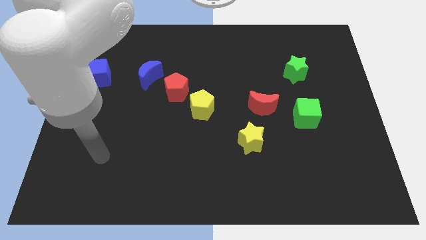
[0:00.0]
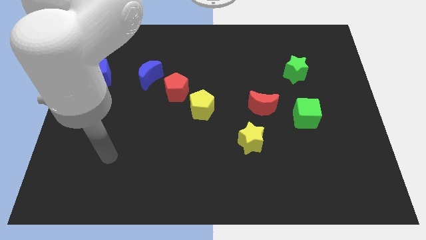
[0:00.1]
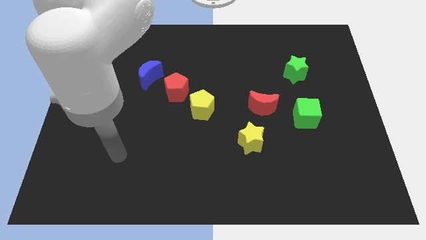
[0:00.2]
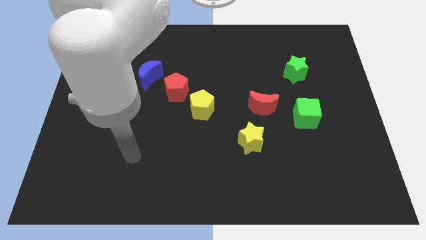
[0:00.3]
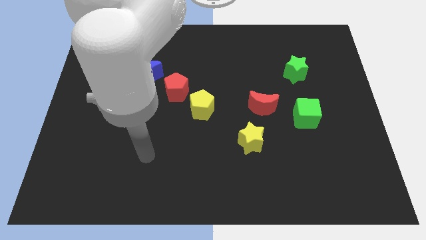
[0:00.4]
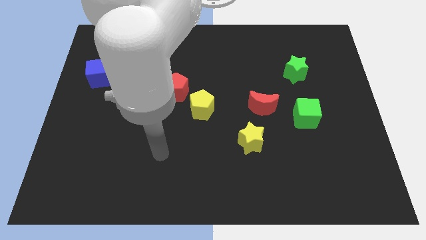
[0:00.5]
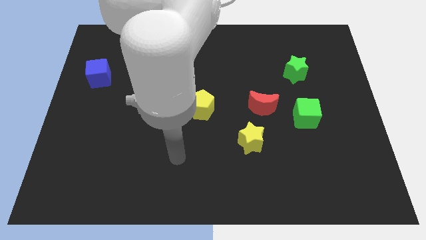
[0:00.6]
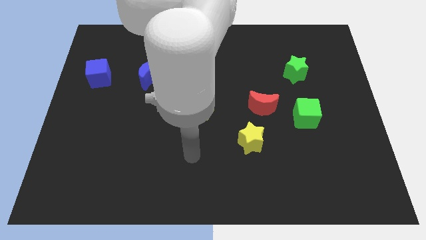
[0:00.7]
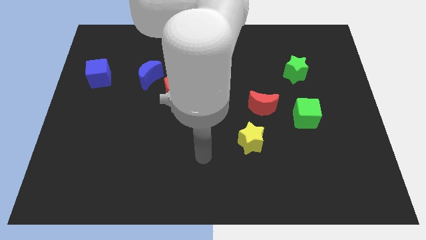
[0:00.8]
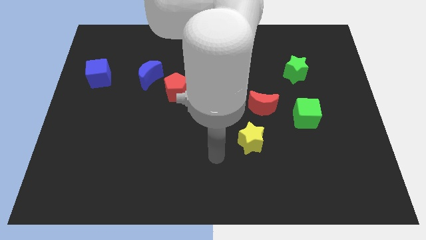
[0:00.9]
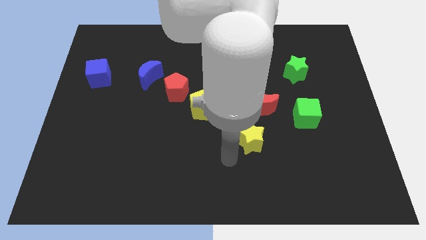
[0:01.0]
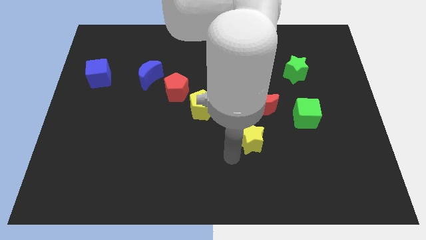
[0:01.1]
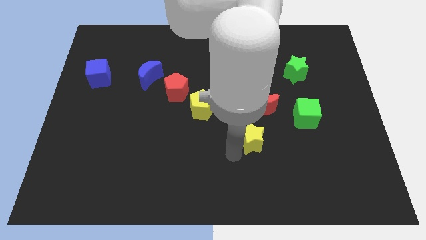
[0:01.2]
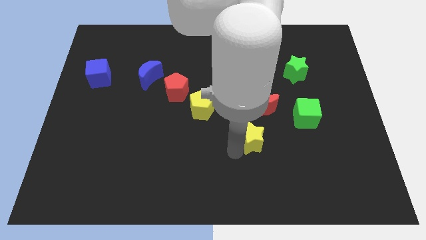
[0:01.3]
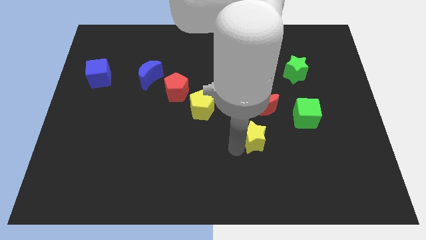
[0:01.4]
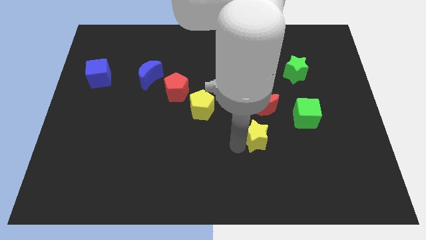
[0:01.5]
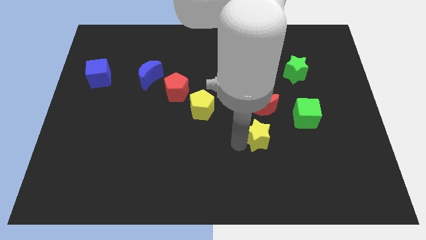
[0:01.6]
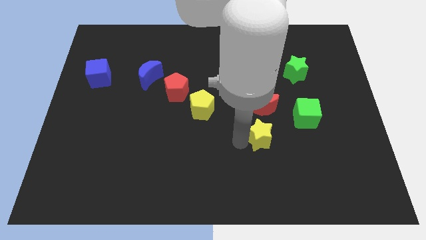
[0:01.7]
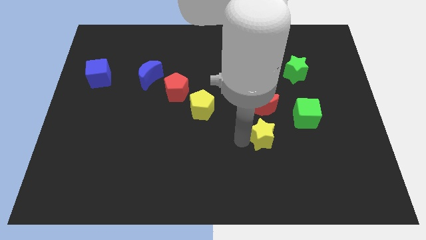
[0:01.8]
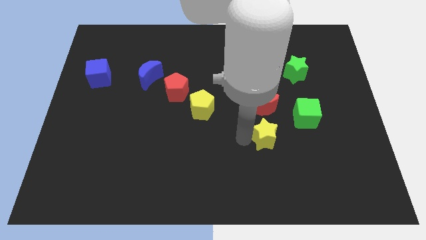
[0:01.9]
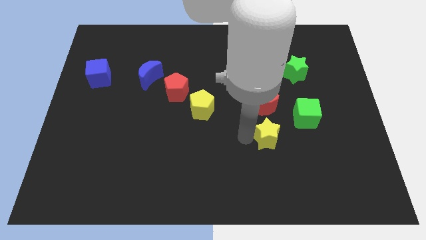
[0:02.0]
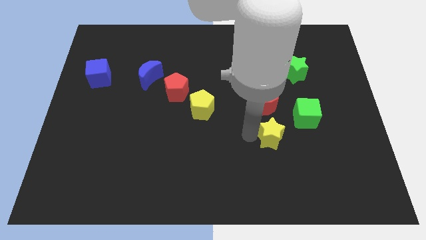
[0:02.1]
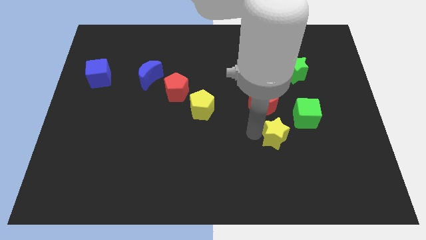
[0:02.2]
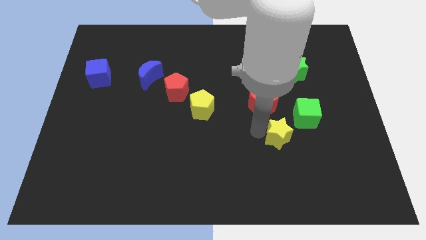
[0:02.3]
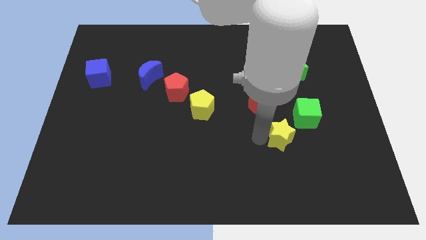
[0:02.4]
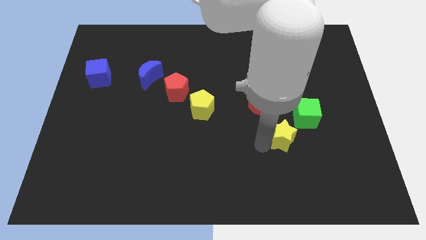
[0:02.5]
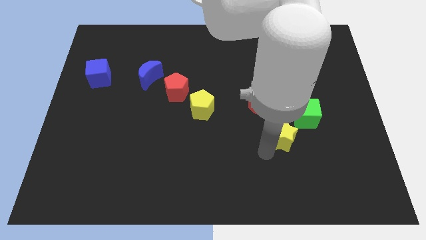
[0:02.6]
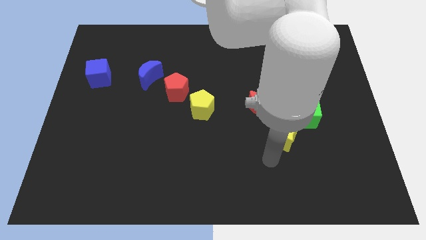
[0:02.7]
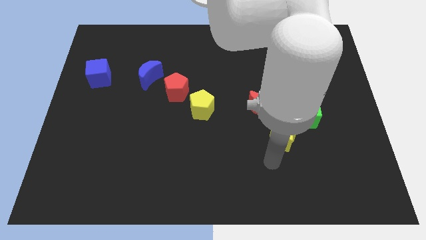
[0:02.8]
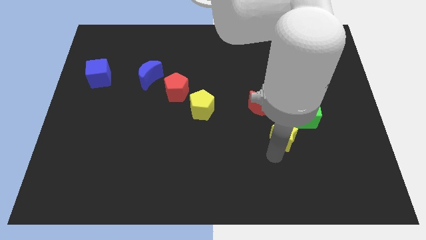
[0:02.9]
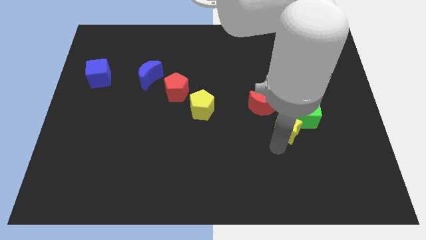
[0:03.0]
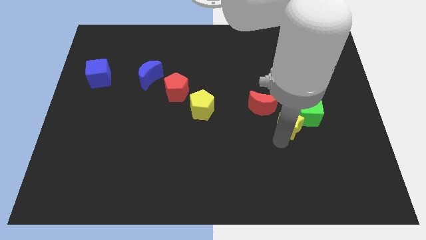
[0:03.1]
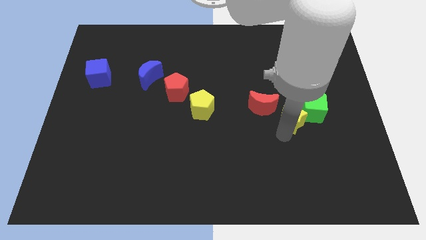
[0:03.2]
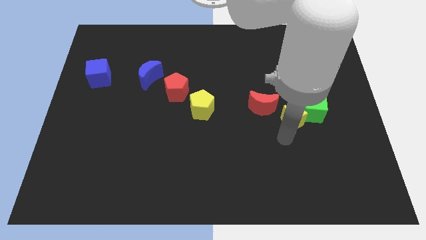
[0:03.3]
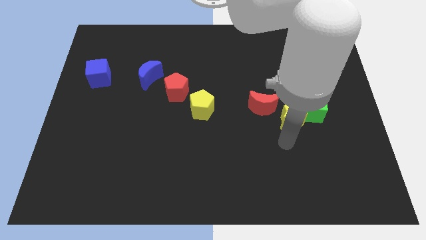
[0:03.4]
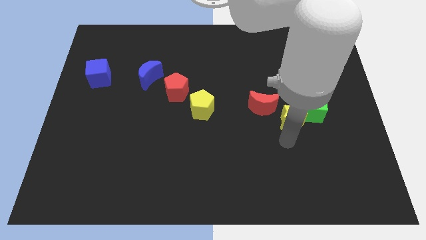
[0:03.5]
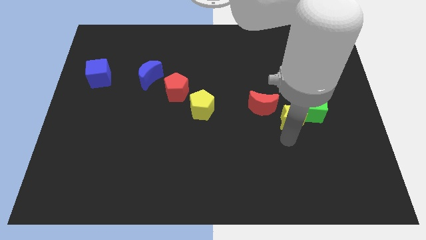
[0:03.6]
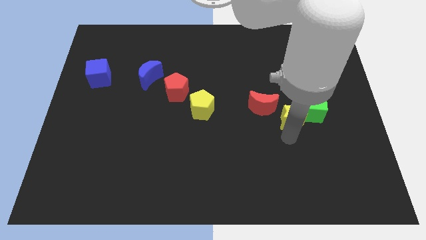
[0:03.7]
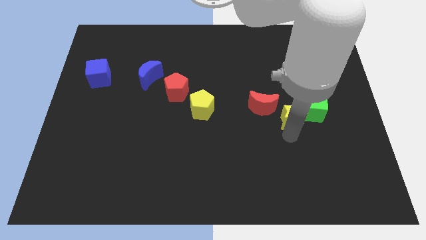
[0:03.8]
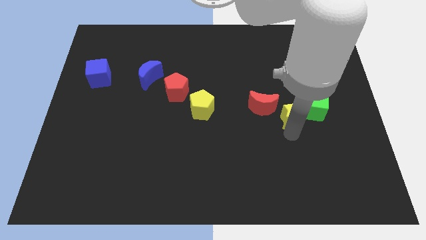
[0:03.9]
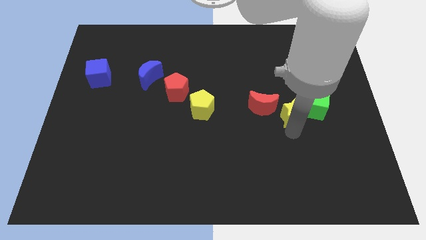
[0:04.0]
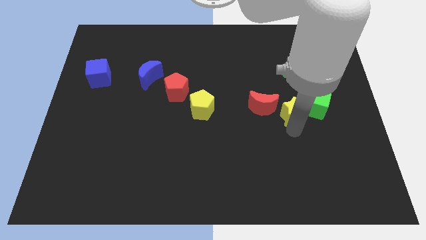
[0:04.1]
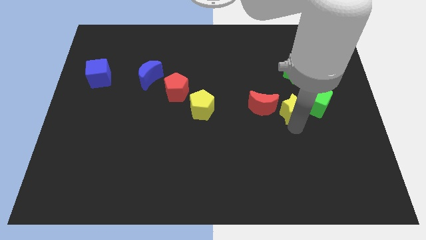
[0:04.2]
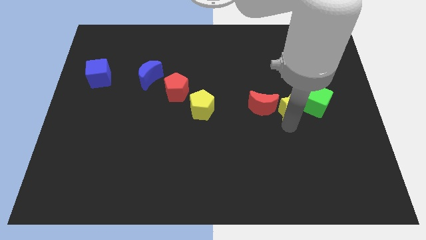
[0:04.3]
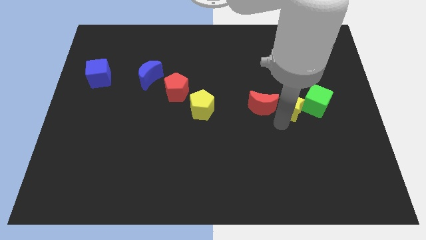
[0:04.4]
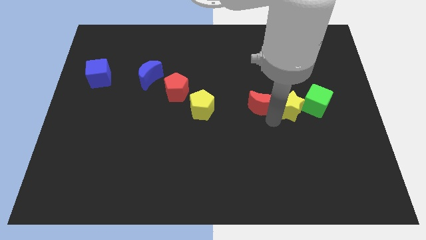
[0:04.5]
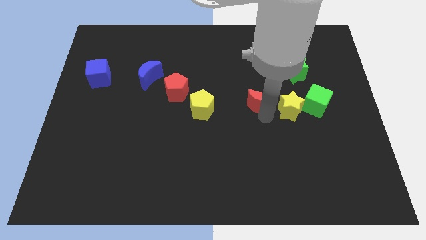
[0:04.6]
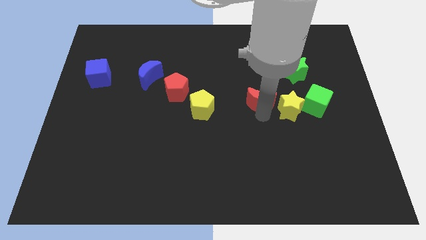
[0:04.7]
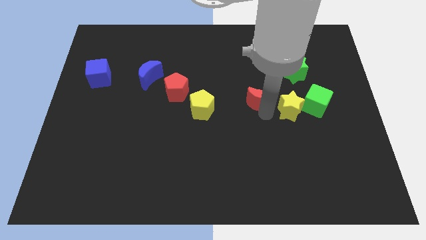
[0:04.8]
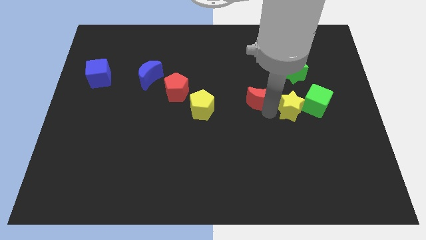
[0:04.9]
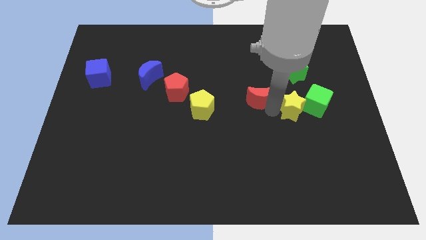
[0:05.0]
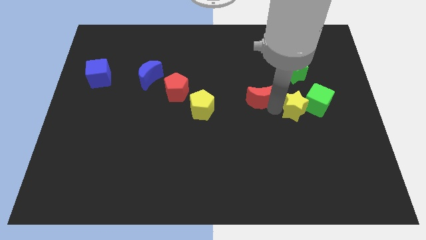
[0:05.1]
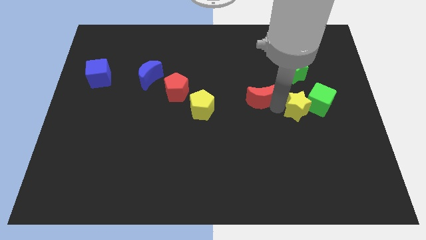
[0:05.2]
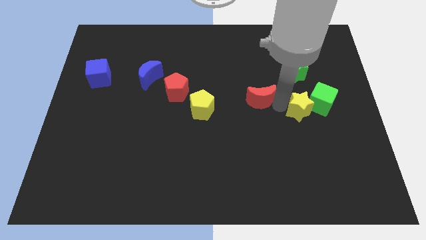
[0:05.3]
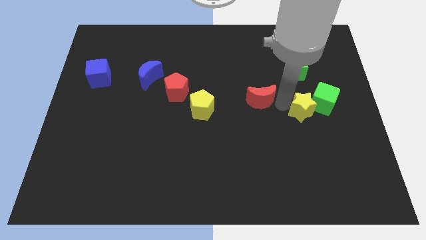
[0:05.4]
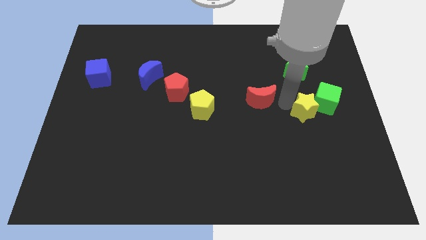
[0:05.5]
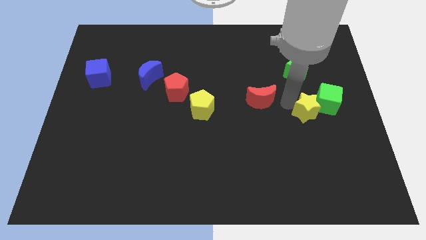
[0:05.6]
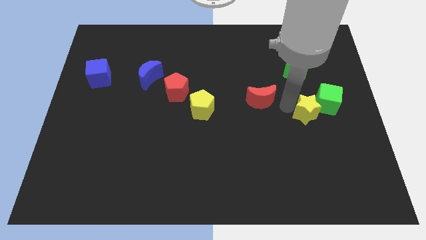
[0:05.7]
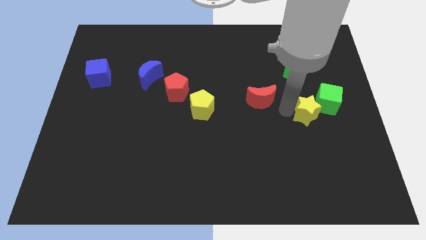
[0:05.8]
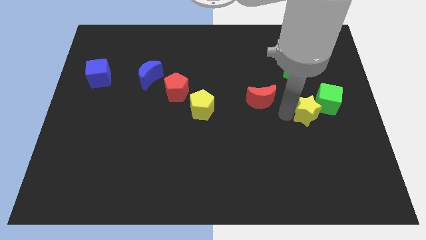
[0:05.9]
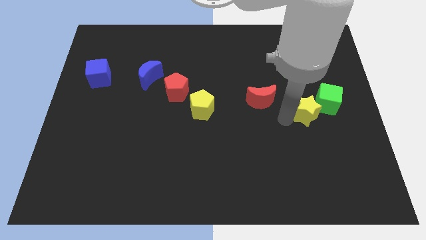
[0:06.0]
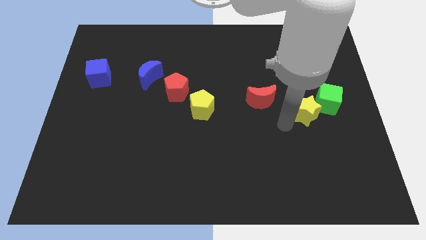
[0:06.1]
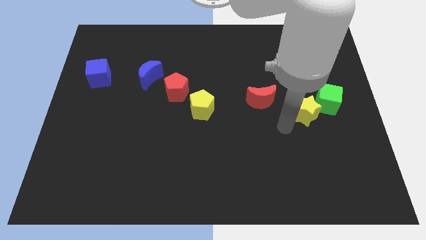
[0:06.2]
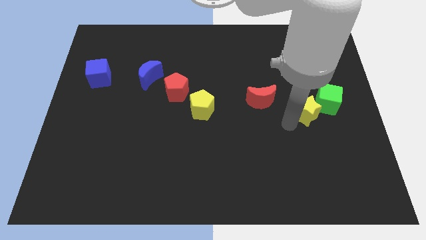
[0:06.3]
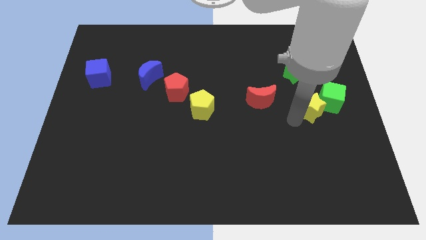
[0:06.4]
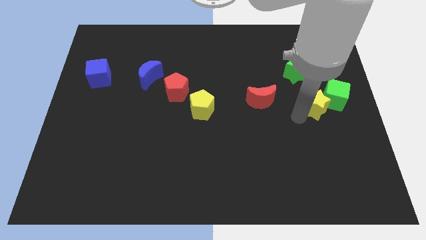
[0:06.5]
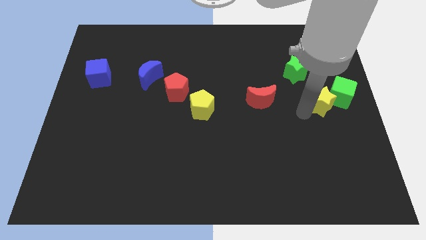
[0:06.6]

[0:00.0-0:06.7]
slide the yellow star to the right side of the board
